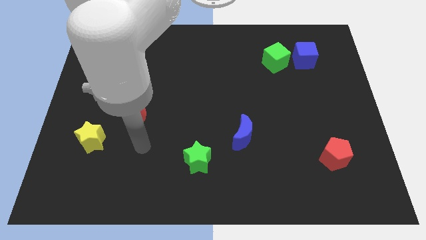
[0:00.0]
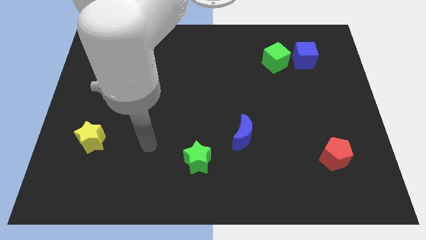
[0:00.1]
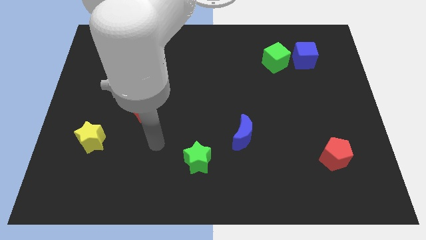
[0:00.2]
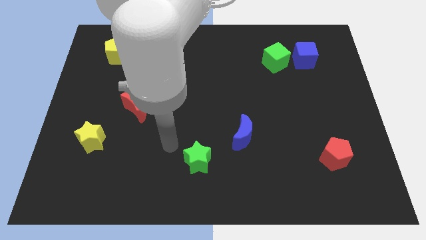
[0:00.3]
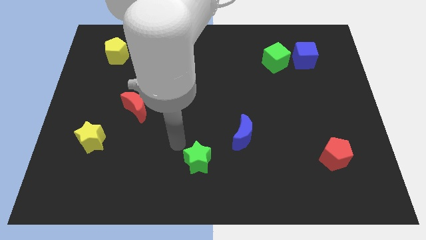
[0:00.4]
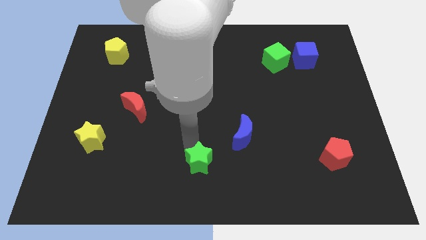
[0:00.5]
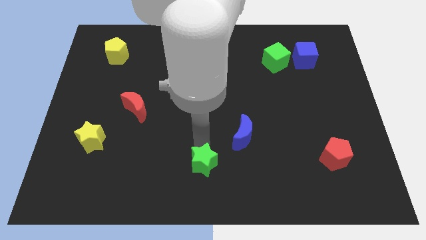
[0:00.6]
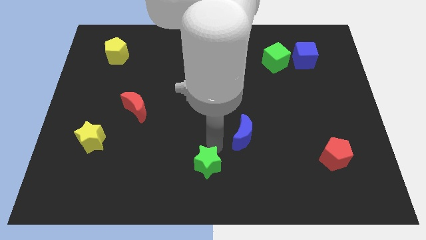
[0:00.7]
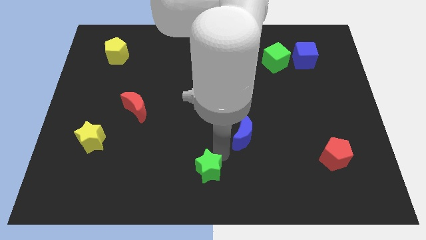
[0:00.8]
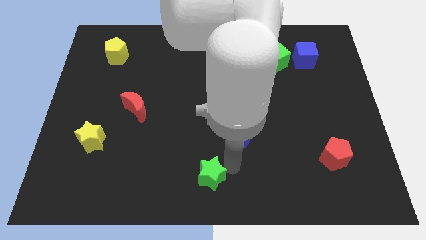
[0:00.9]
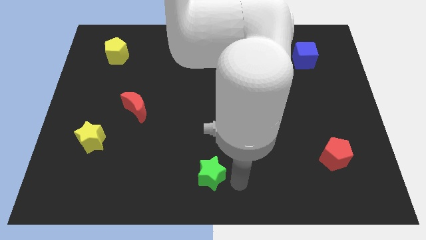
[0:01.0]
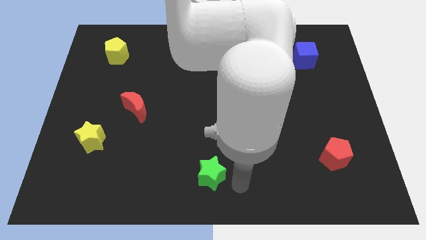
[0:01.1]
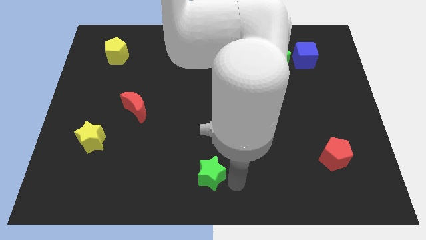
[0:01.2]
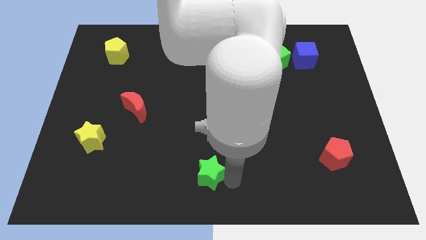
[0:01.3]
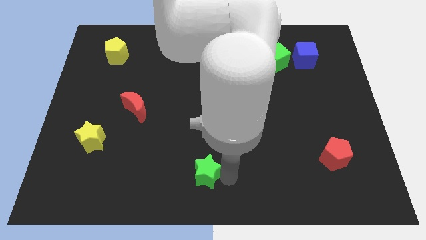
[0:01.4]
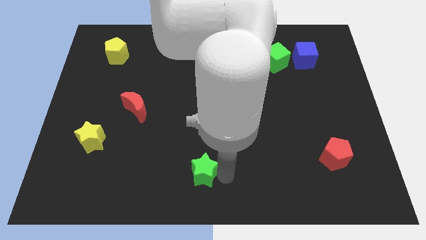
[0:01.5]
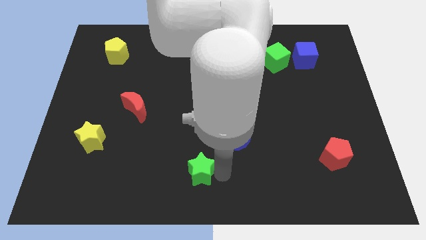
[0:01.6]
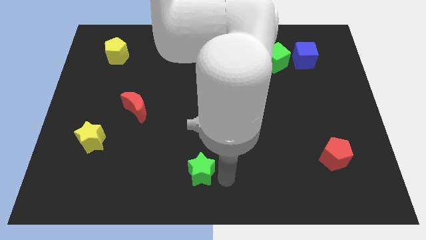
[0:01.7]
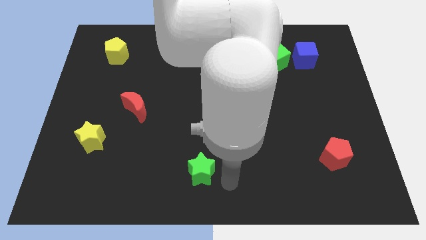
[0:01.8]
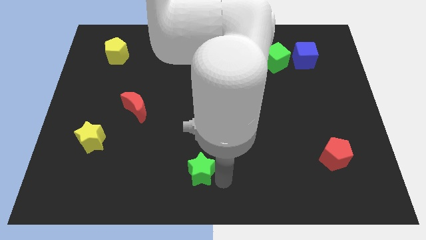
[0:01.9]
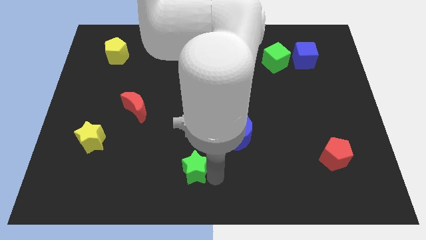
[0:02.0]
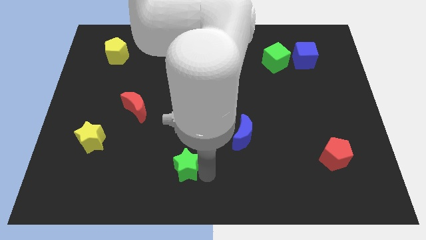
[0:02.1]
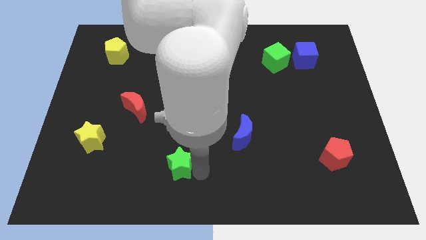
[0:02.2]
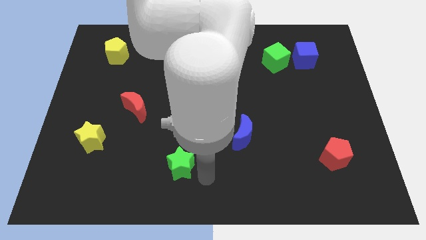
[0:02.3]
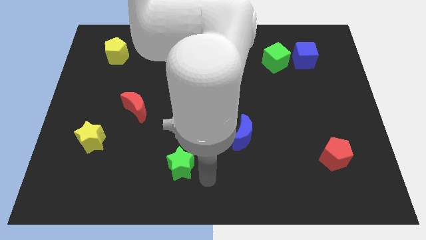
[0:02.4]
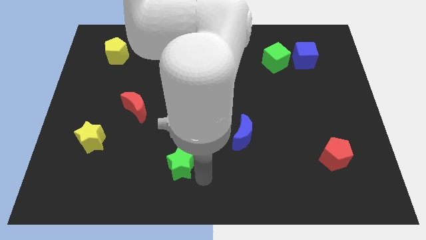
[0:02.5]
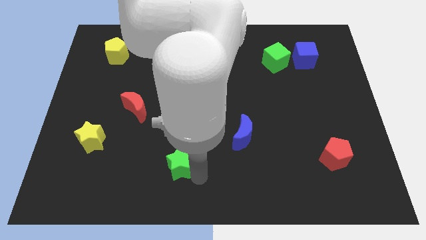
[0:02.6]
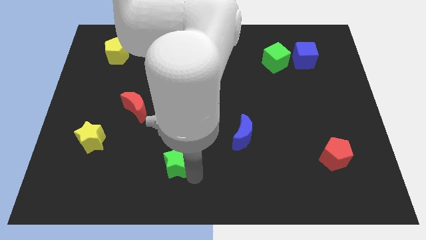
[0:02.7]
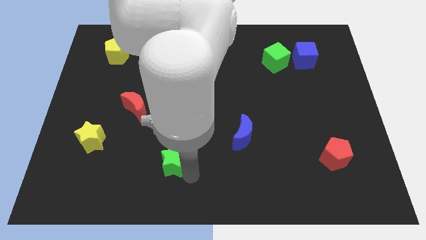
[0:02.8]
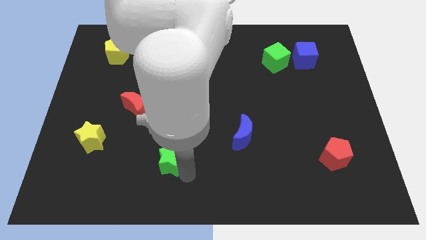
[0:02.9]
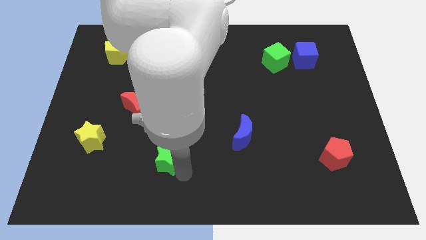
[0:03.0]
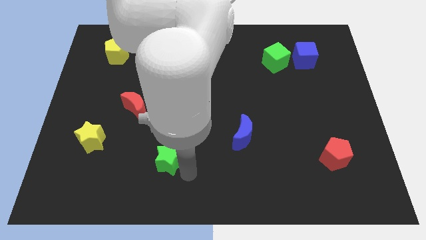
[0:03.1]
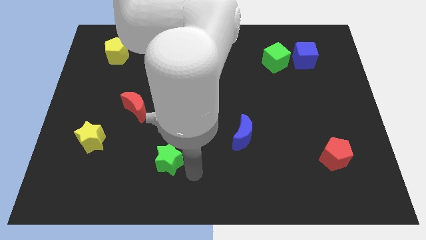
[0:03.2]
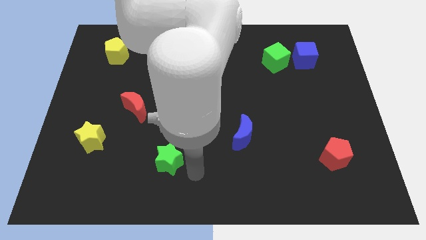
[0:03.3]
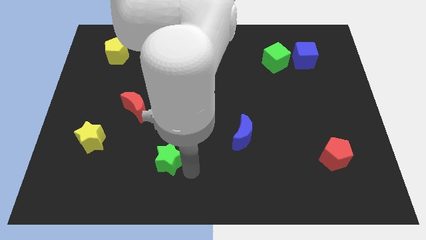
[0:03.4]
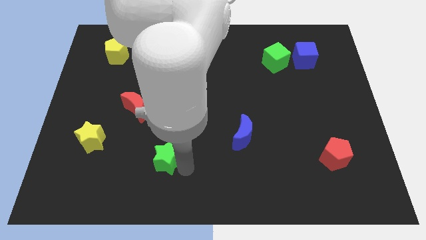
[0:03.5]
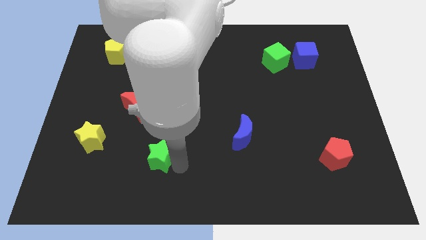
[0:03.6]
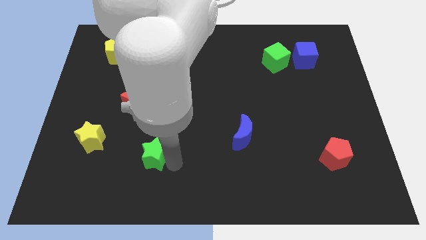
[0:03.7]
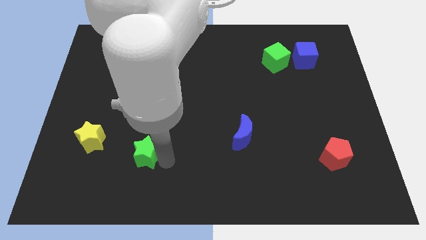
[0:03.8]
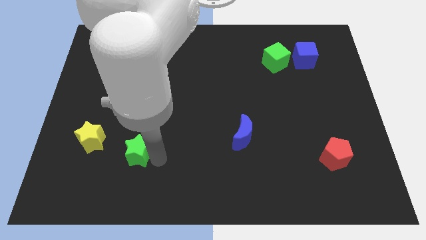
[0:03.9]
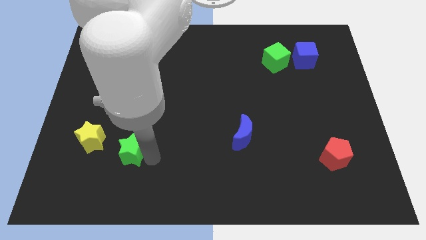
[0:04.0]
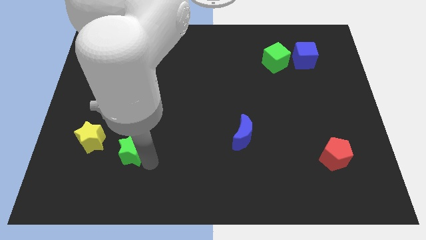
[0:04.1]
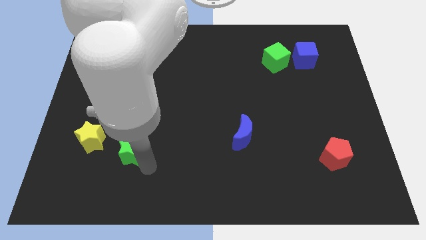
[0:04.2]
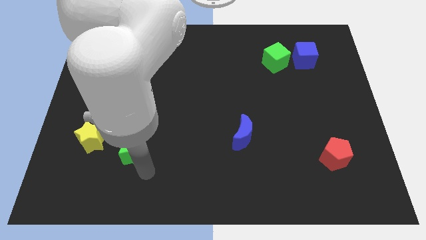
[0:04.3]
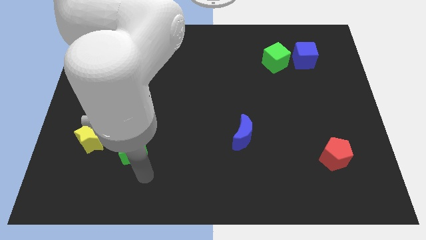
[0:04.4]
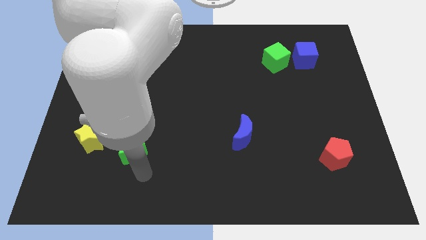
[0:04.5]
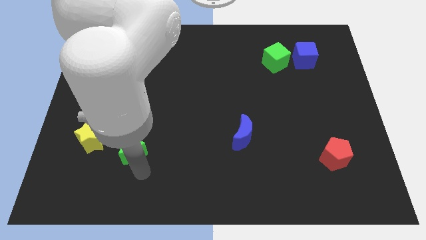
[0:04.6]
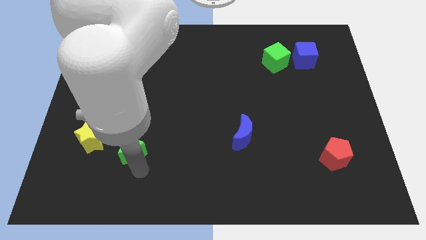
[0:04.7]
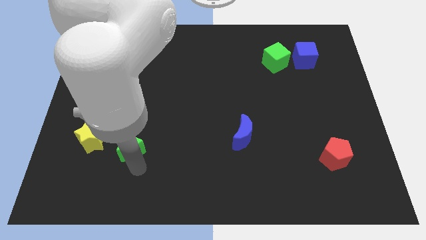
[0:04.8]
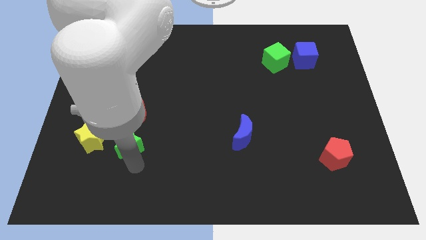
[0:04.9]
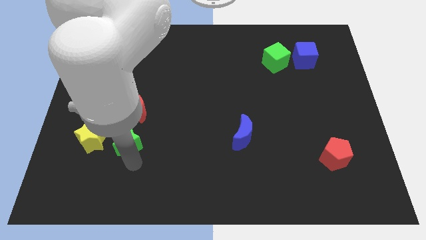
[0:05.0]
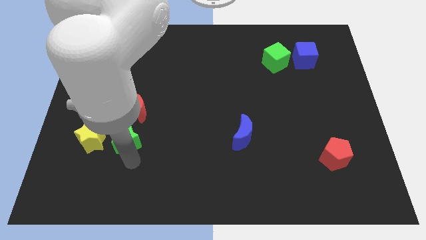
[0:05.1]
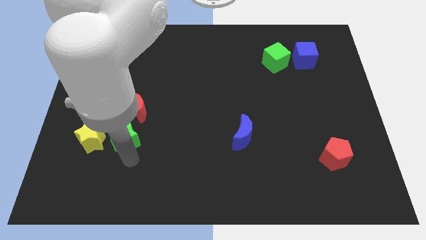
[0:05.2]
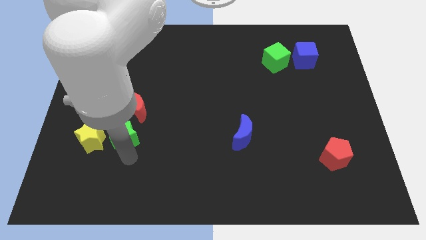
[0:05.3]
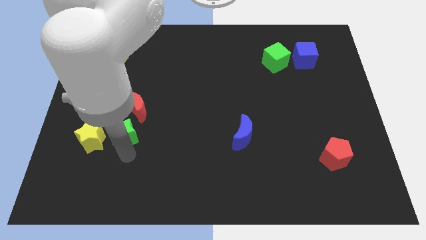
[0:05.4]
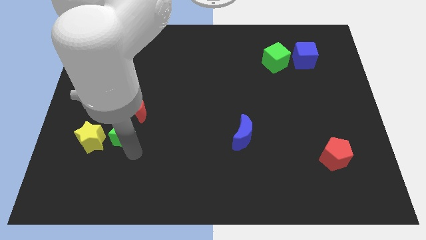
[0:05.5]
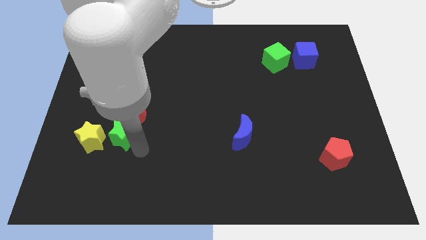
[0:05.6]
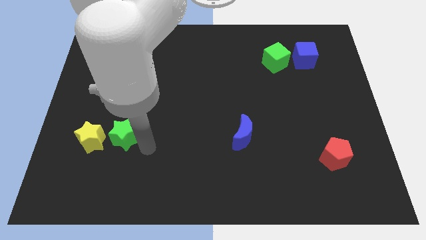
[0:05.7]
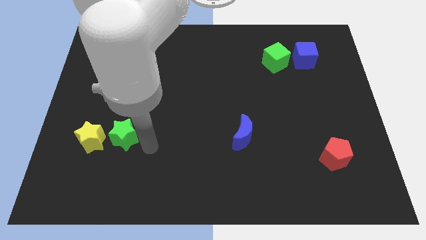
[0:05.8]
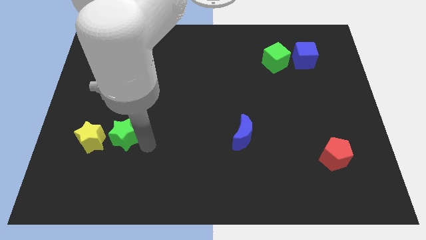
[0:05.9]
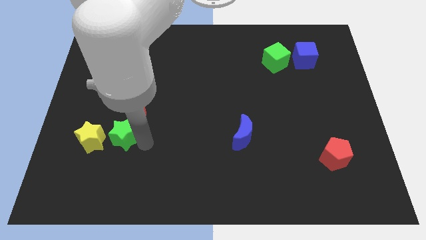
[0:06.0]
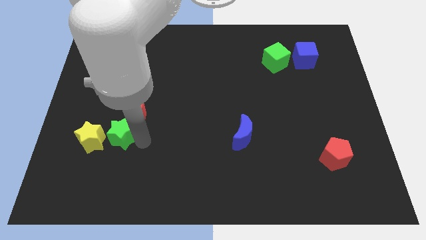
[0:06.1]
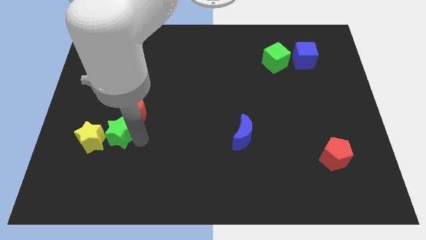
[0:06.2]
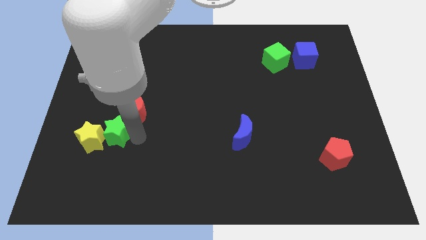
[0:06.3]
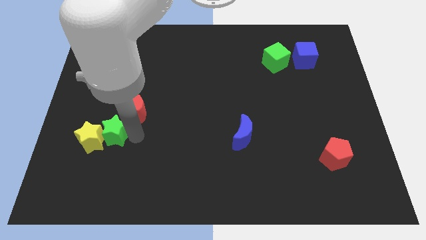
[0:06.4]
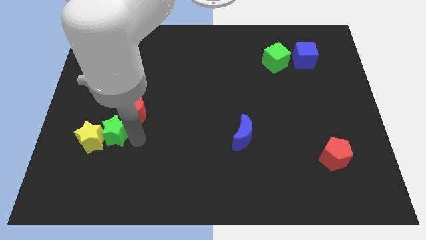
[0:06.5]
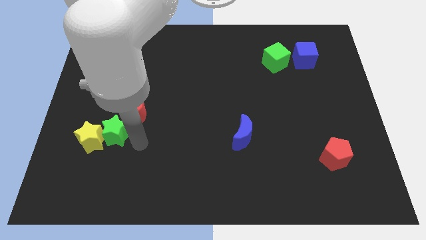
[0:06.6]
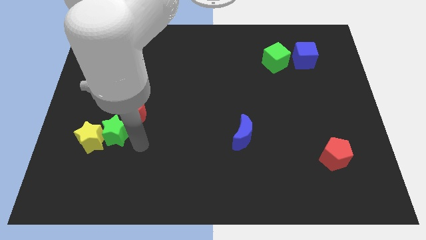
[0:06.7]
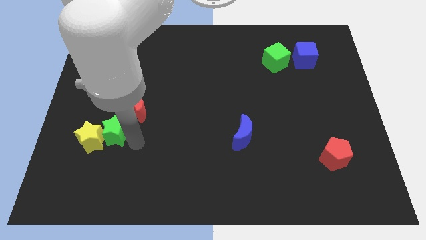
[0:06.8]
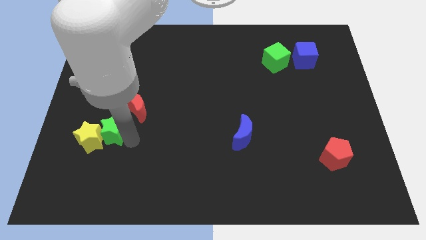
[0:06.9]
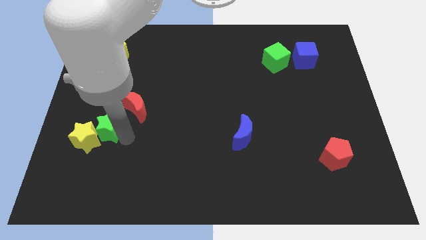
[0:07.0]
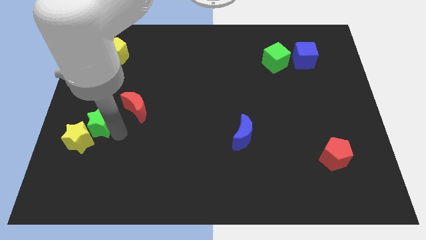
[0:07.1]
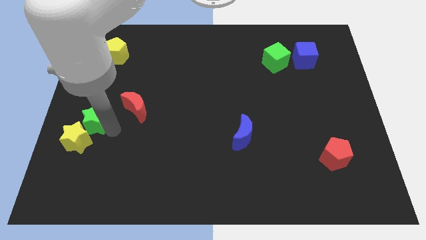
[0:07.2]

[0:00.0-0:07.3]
put the green star to the left side of the board
